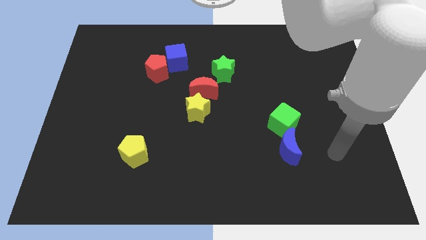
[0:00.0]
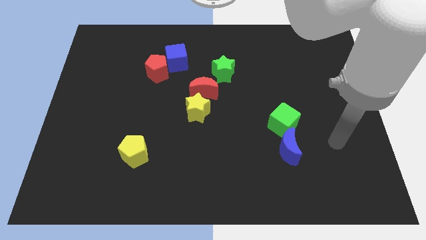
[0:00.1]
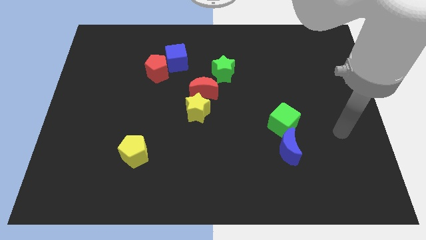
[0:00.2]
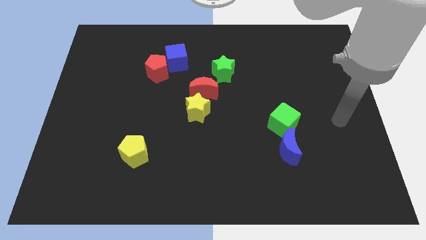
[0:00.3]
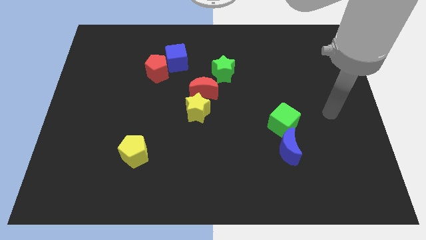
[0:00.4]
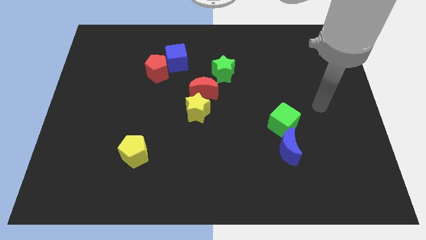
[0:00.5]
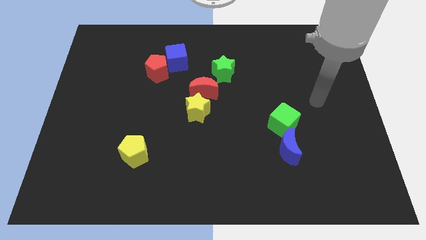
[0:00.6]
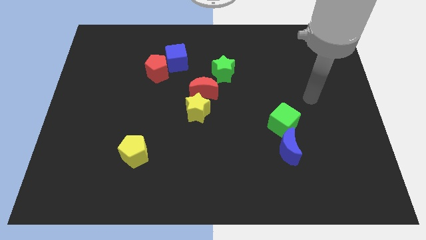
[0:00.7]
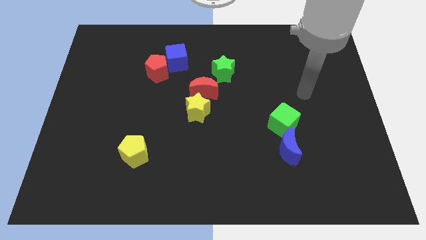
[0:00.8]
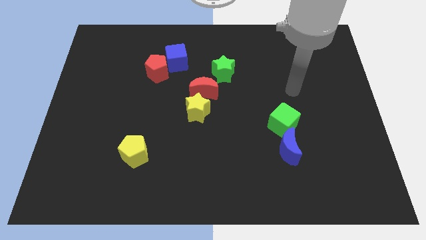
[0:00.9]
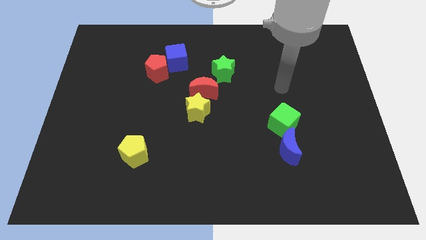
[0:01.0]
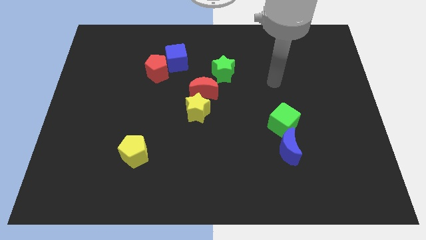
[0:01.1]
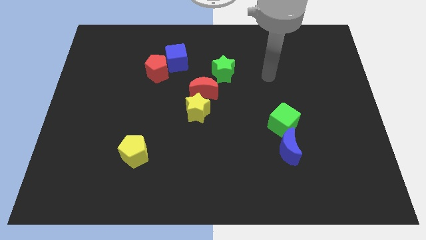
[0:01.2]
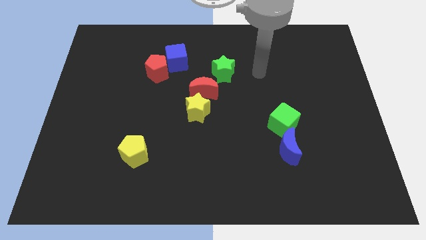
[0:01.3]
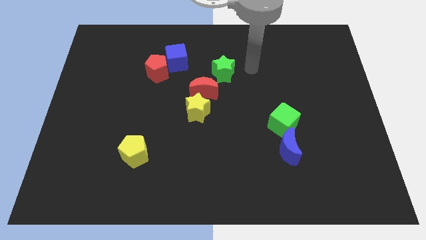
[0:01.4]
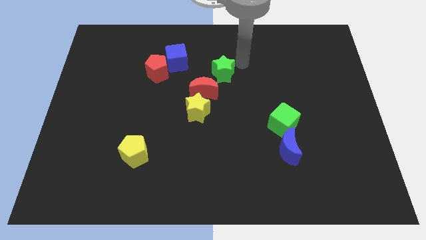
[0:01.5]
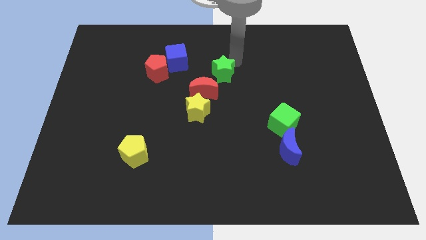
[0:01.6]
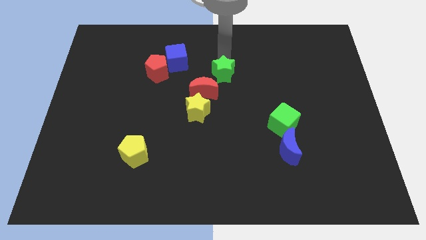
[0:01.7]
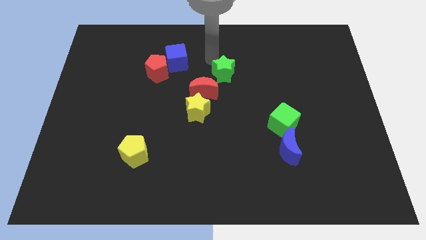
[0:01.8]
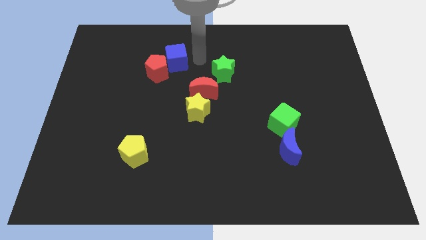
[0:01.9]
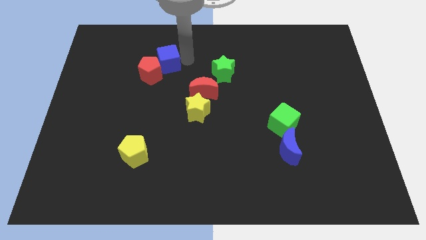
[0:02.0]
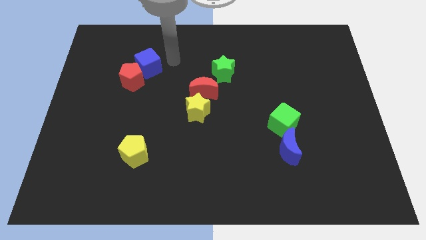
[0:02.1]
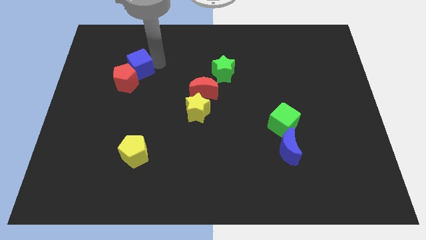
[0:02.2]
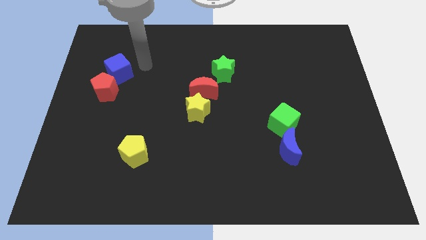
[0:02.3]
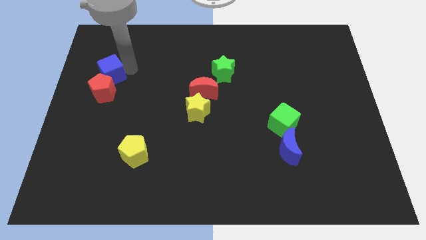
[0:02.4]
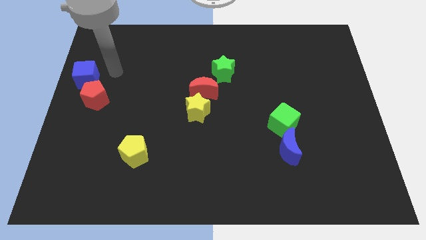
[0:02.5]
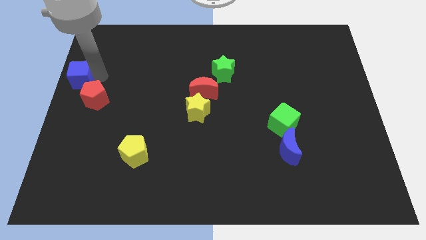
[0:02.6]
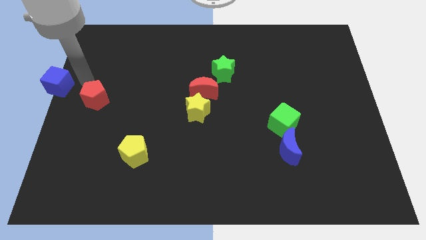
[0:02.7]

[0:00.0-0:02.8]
pull the red pentagon apart from the blue cube

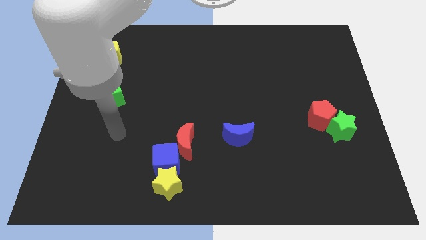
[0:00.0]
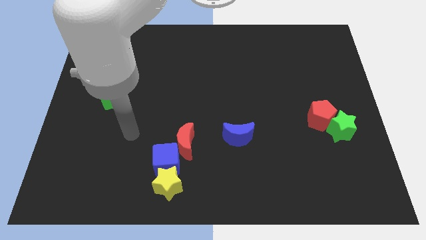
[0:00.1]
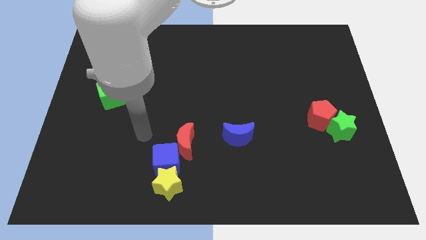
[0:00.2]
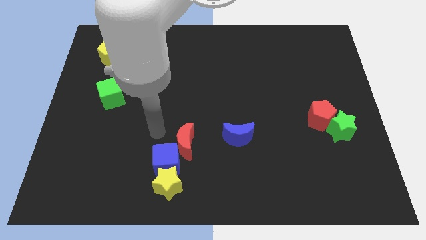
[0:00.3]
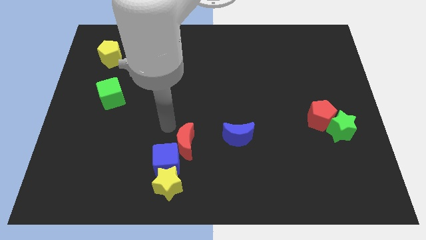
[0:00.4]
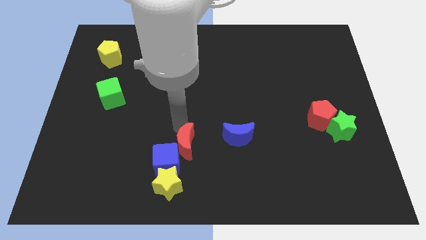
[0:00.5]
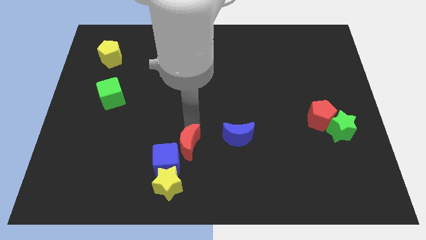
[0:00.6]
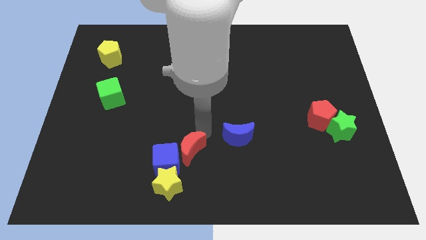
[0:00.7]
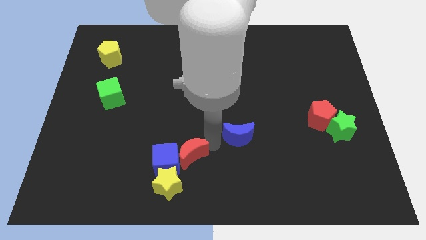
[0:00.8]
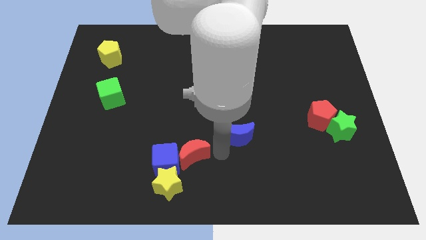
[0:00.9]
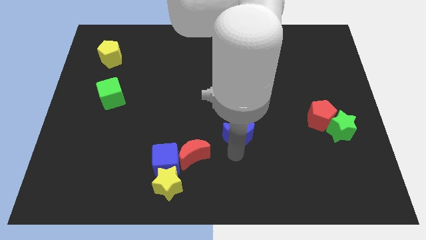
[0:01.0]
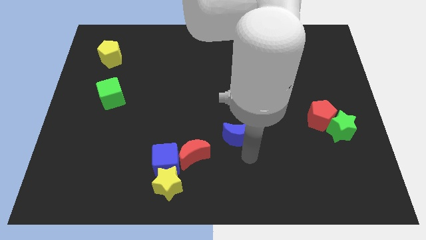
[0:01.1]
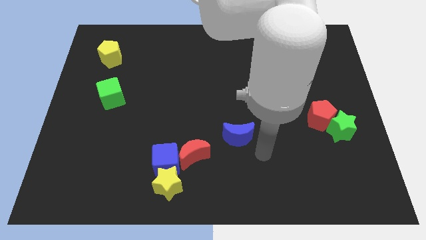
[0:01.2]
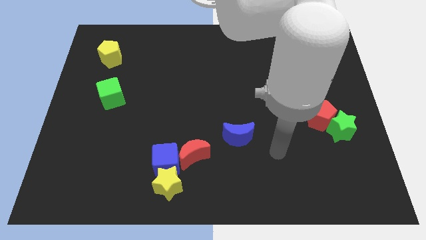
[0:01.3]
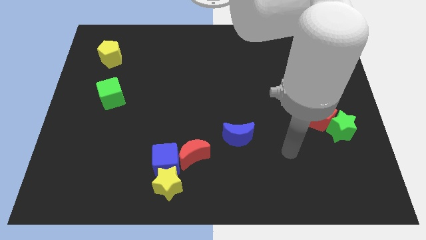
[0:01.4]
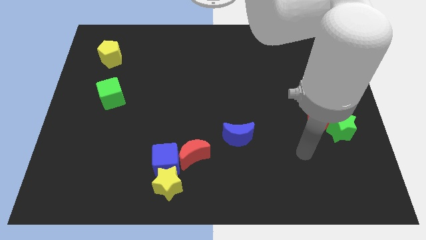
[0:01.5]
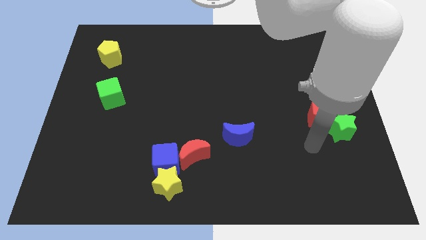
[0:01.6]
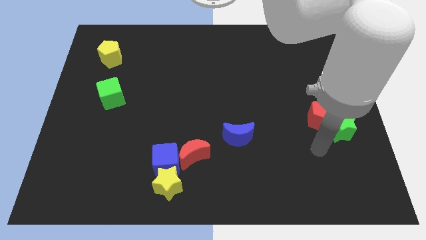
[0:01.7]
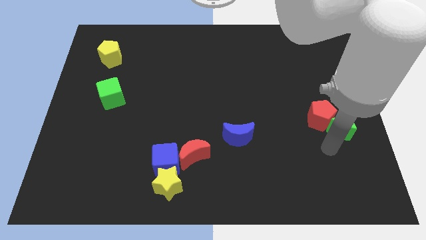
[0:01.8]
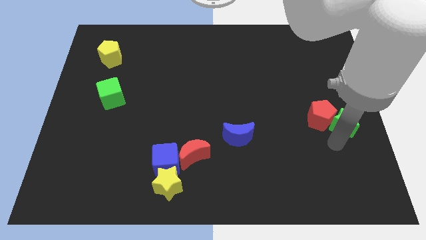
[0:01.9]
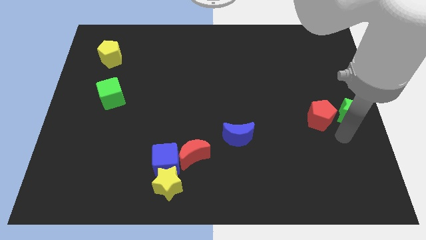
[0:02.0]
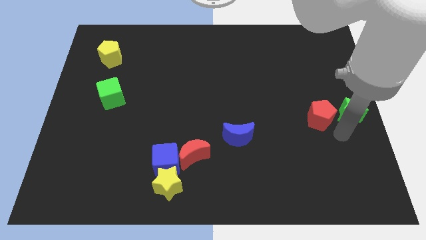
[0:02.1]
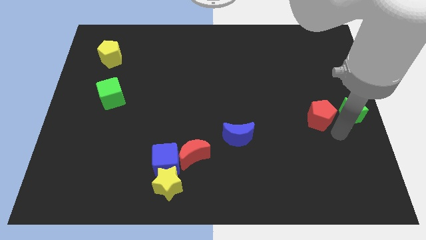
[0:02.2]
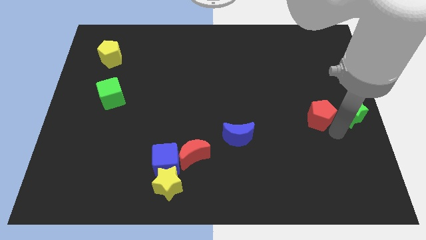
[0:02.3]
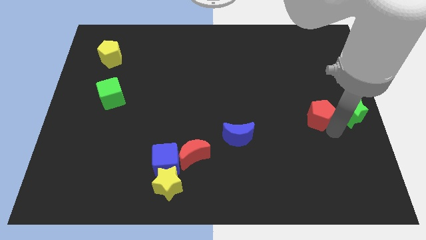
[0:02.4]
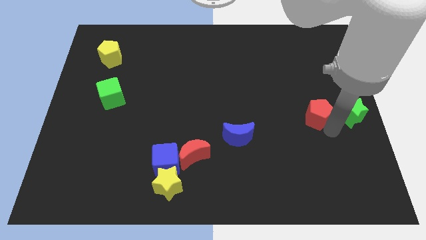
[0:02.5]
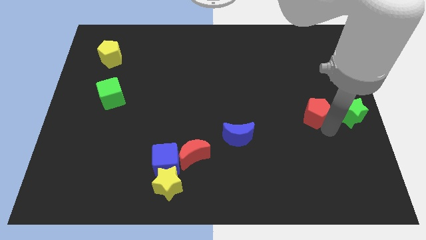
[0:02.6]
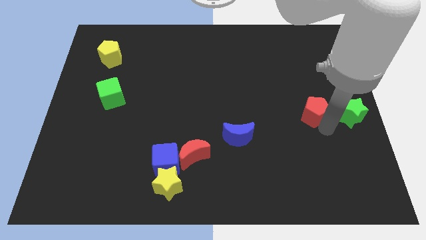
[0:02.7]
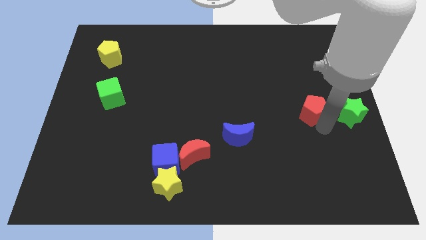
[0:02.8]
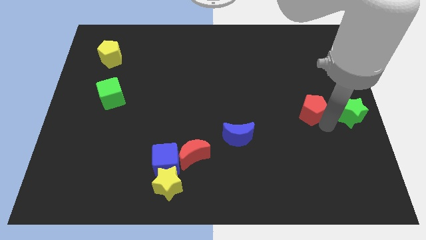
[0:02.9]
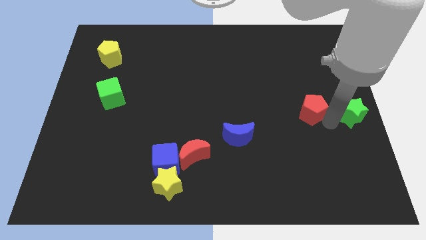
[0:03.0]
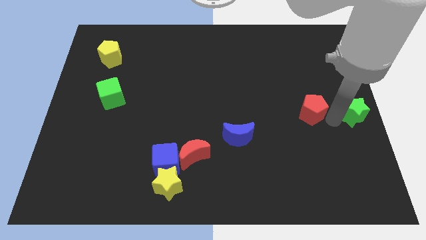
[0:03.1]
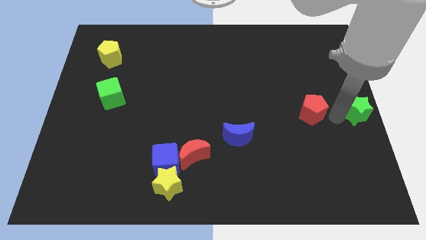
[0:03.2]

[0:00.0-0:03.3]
separate the red pentagon from the green star

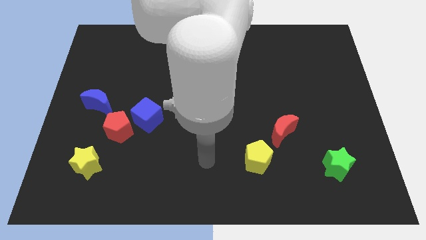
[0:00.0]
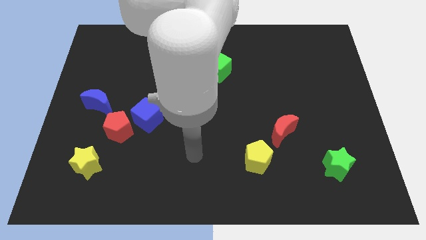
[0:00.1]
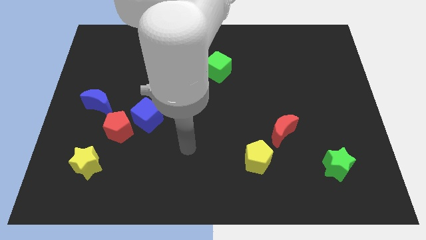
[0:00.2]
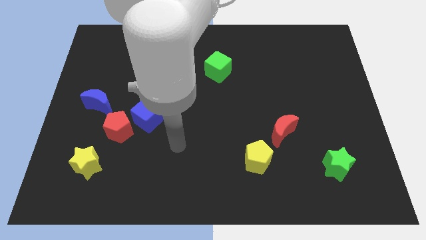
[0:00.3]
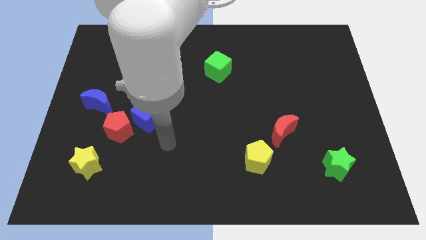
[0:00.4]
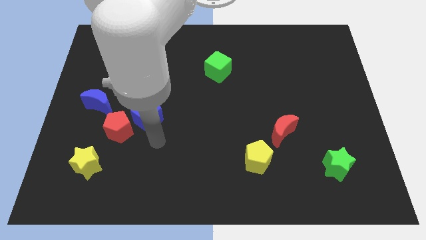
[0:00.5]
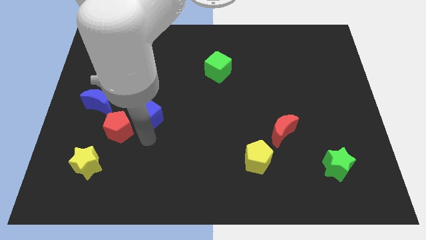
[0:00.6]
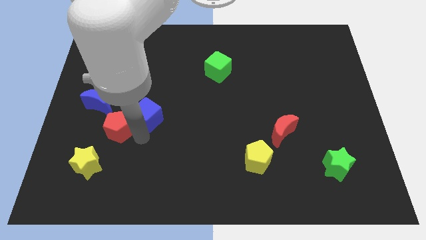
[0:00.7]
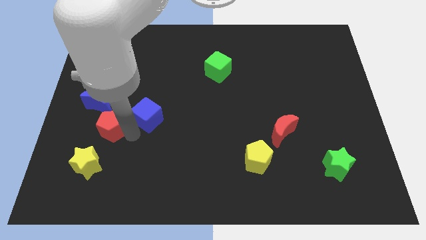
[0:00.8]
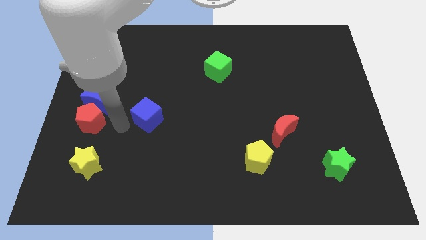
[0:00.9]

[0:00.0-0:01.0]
separate the blue cube from the red pentagon

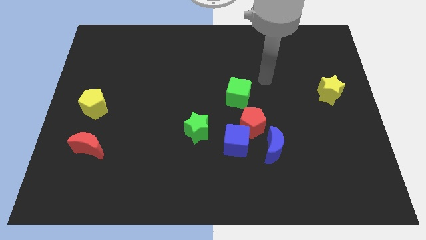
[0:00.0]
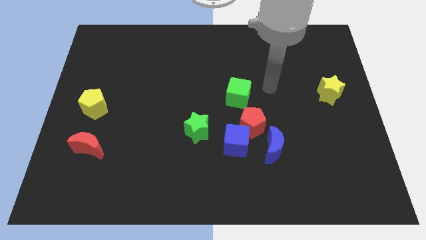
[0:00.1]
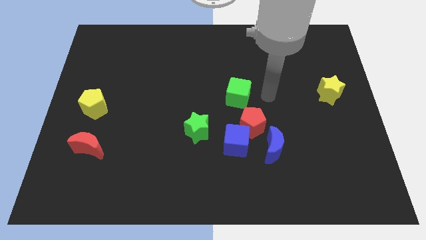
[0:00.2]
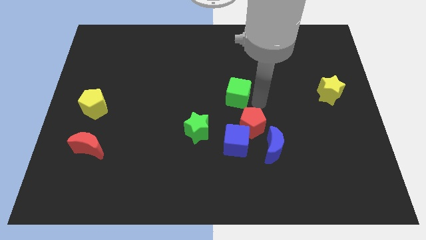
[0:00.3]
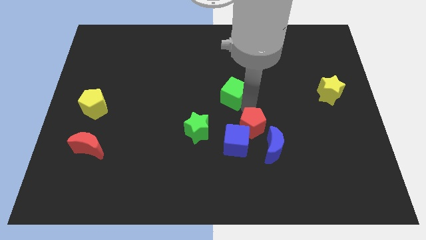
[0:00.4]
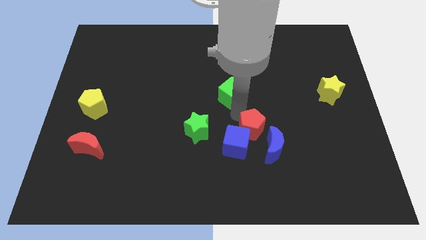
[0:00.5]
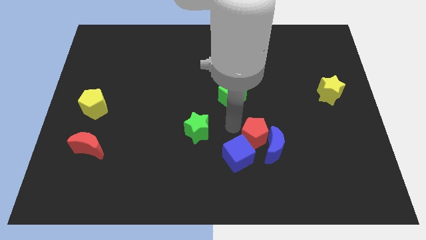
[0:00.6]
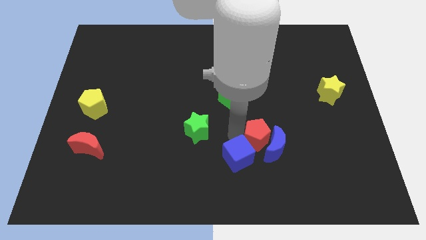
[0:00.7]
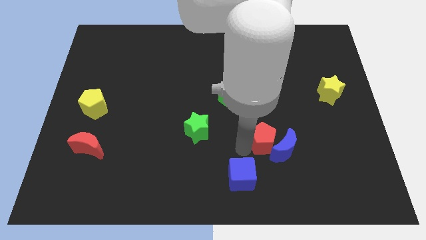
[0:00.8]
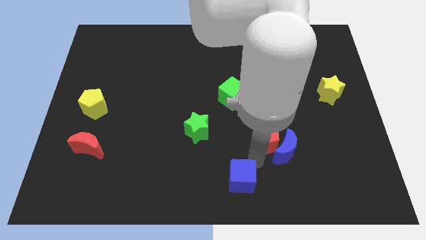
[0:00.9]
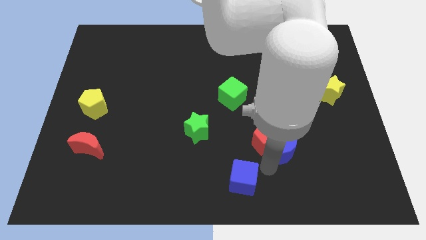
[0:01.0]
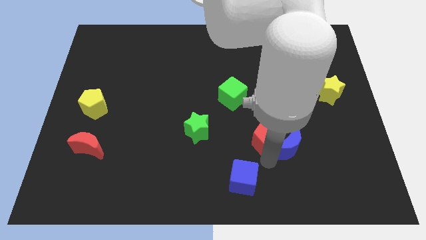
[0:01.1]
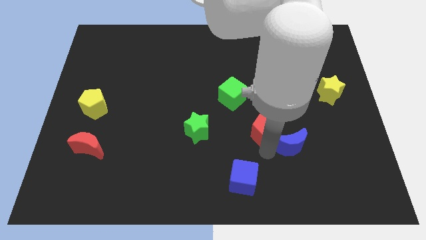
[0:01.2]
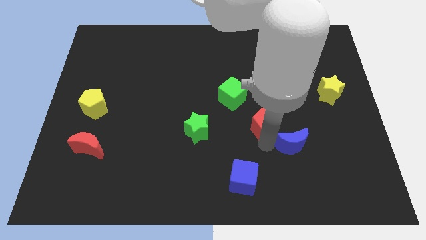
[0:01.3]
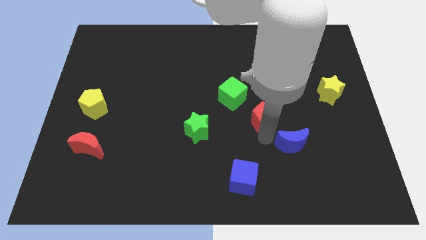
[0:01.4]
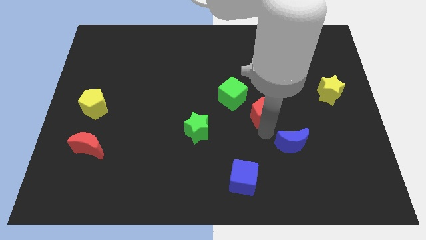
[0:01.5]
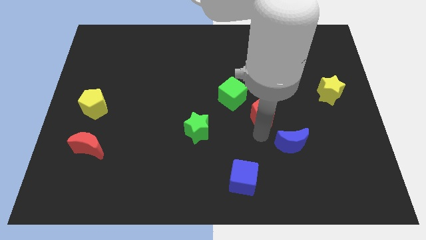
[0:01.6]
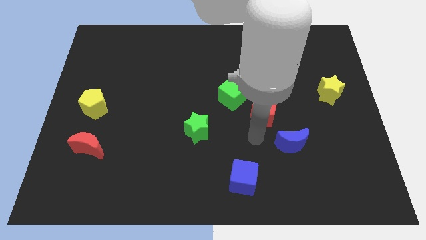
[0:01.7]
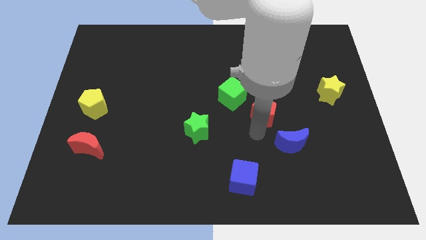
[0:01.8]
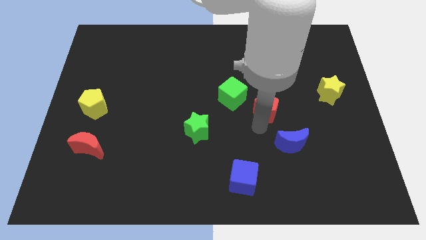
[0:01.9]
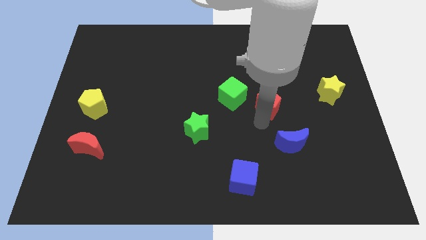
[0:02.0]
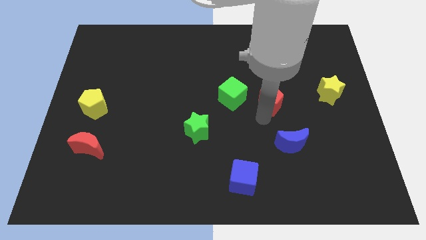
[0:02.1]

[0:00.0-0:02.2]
move the red pentagon away from the group
